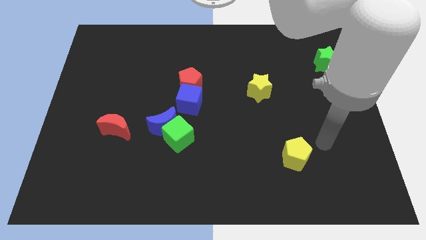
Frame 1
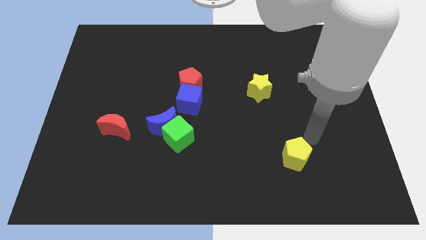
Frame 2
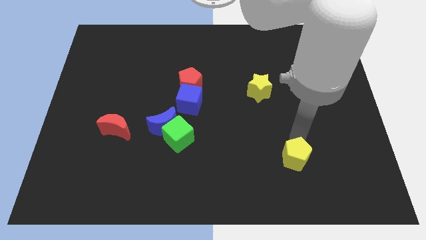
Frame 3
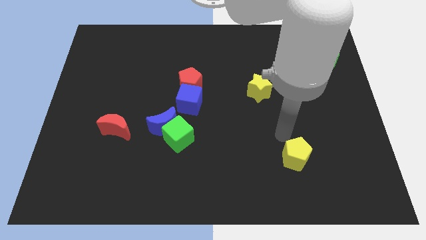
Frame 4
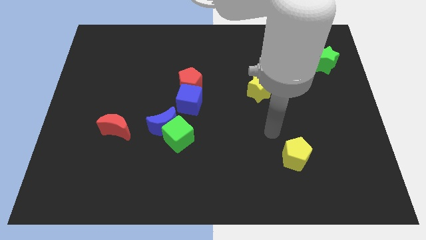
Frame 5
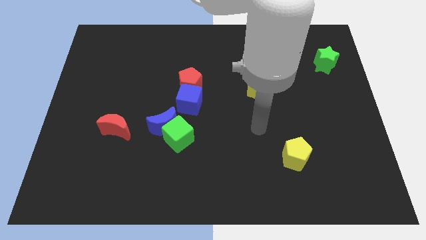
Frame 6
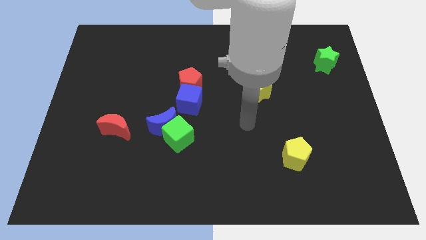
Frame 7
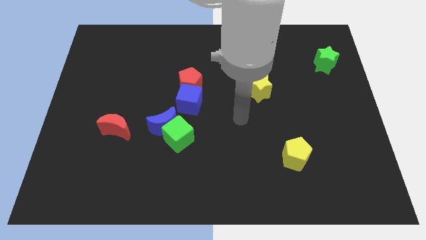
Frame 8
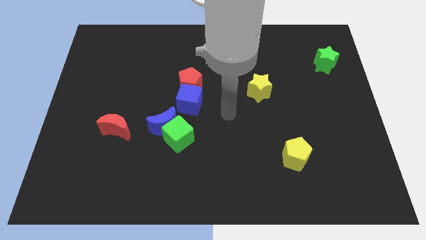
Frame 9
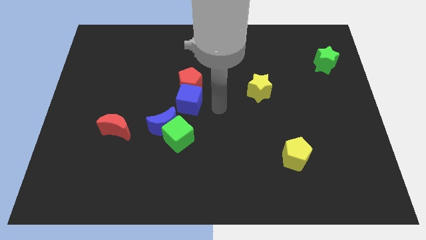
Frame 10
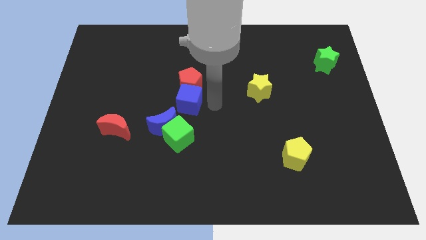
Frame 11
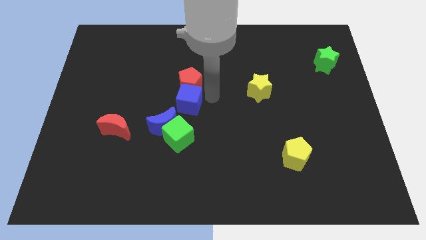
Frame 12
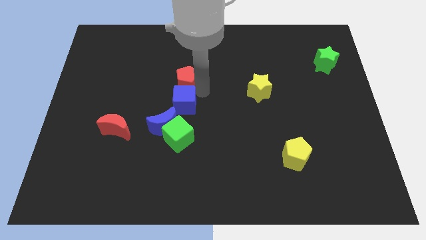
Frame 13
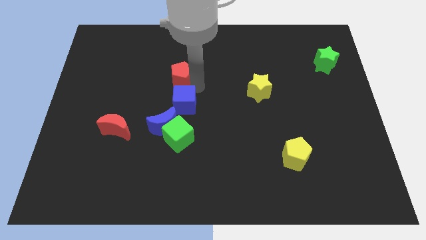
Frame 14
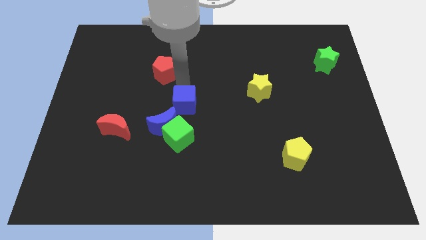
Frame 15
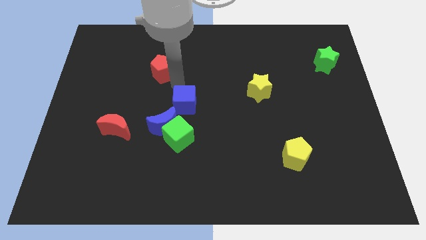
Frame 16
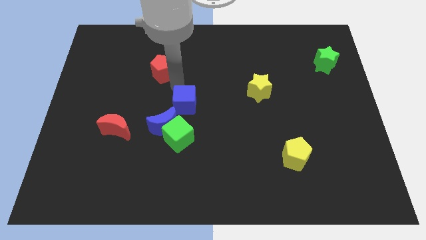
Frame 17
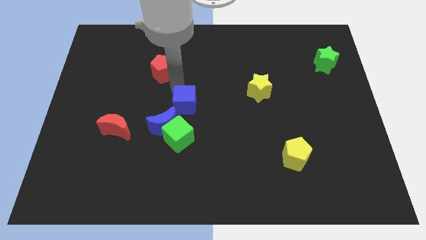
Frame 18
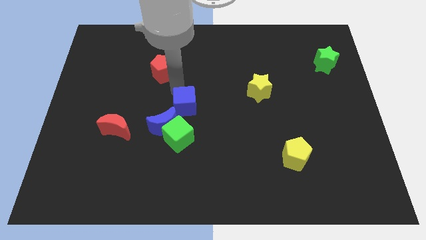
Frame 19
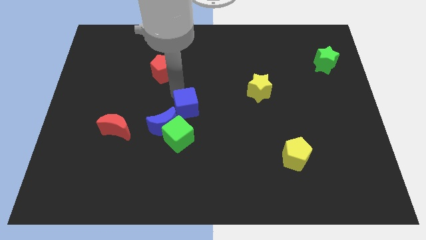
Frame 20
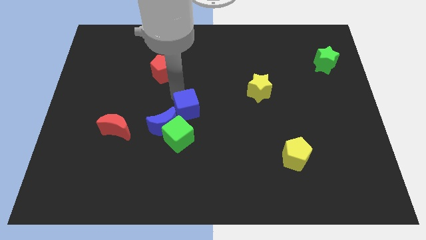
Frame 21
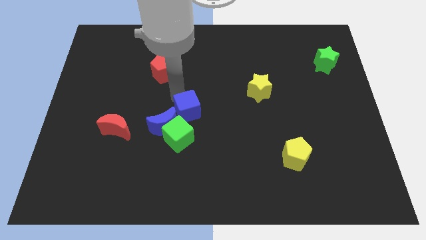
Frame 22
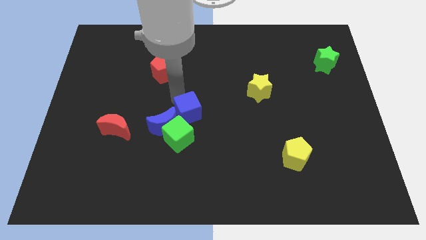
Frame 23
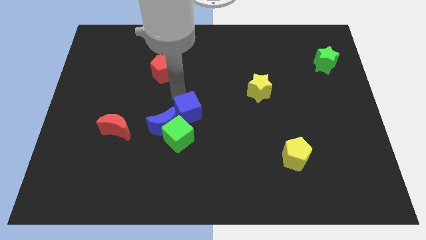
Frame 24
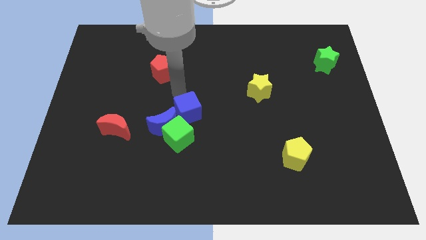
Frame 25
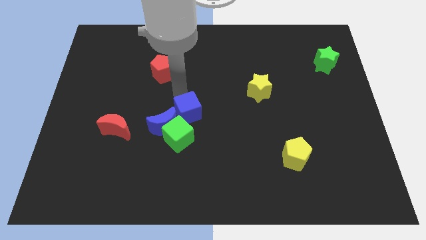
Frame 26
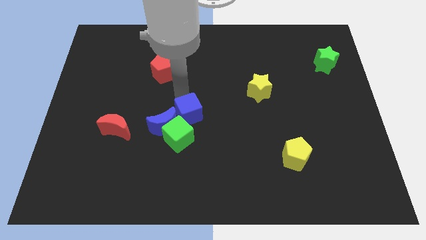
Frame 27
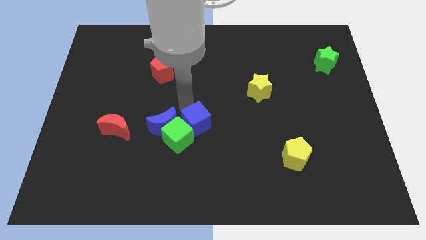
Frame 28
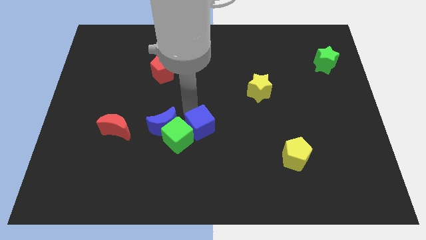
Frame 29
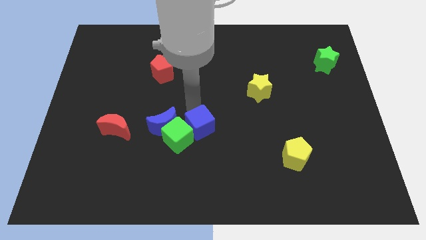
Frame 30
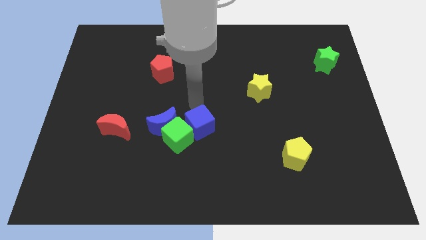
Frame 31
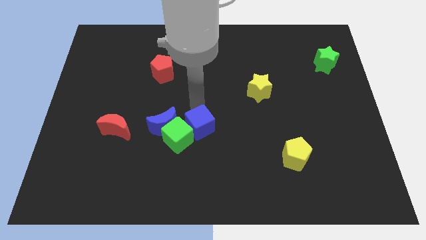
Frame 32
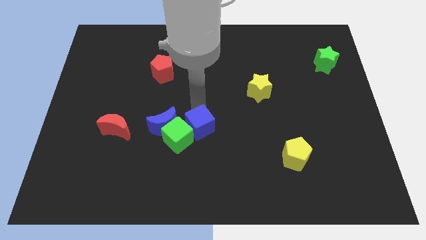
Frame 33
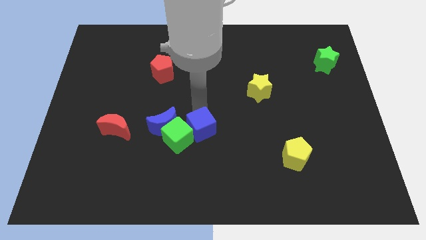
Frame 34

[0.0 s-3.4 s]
slightly slide the blue cube down

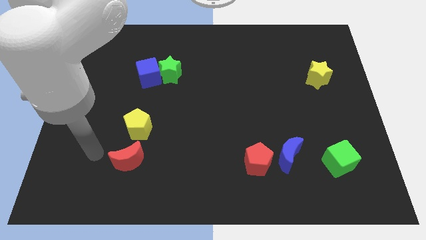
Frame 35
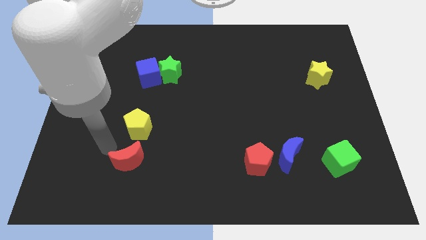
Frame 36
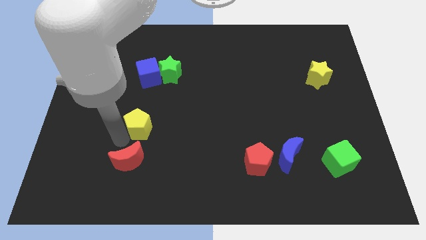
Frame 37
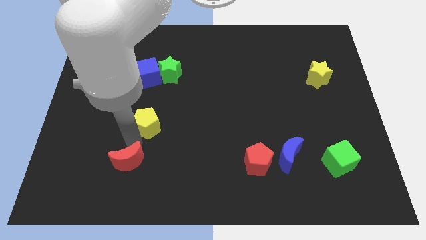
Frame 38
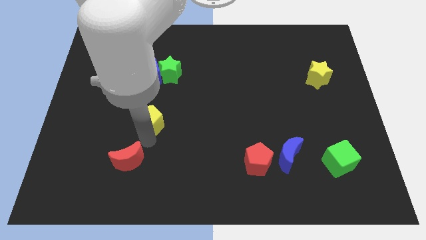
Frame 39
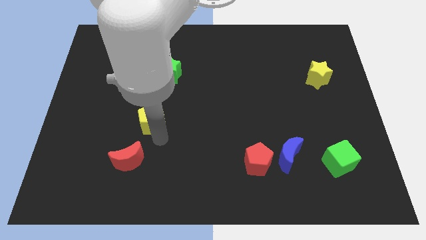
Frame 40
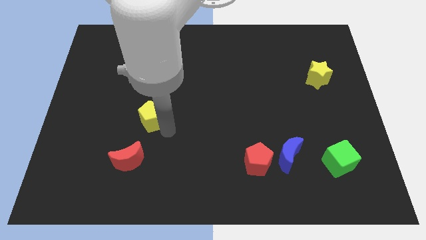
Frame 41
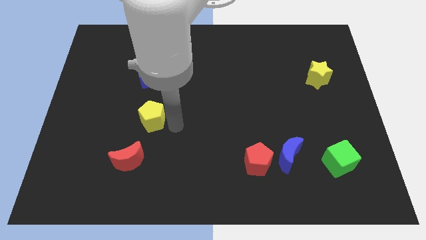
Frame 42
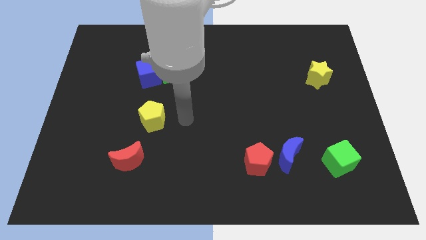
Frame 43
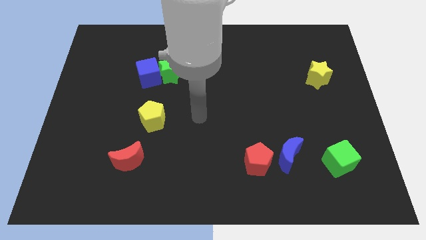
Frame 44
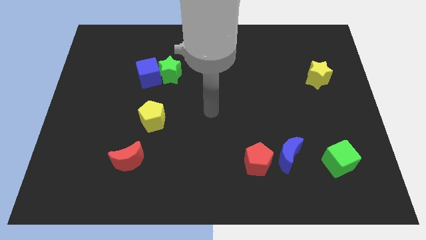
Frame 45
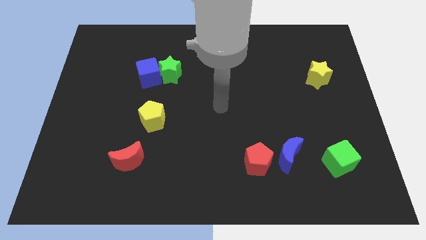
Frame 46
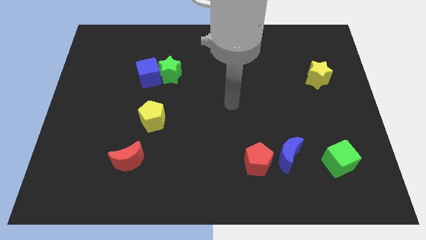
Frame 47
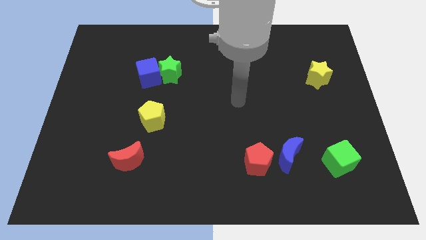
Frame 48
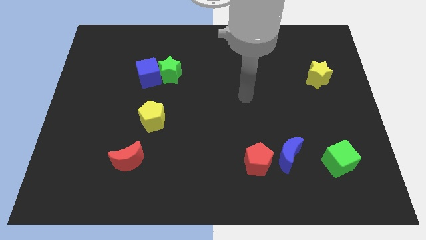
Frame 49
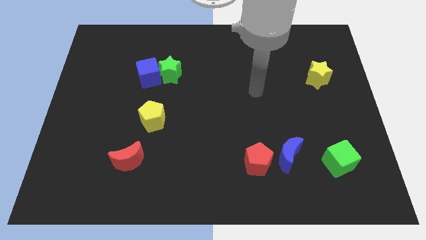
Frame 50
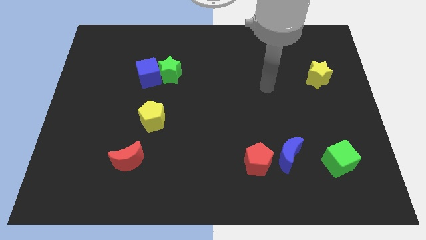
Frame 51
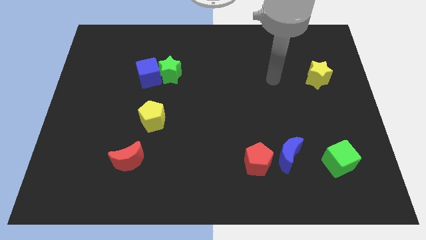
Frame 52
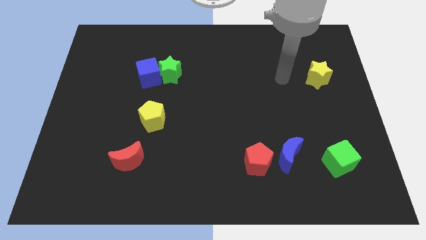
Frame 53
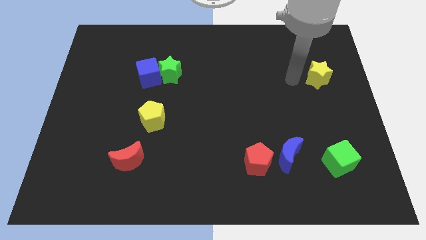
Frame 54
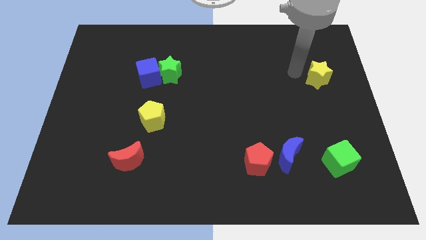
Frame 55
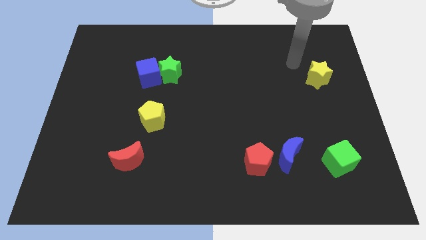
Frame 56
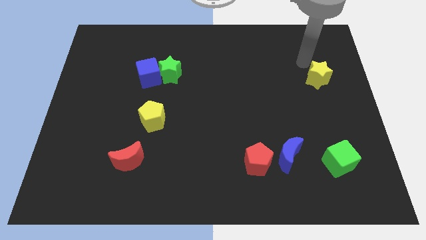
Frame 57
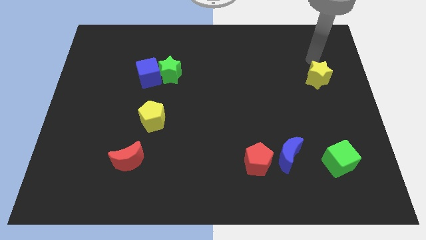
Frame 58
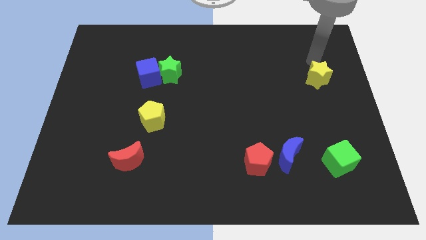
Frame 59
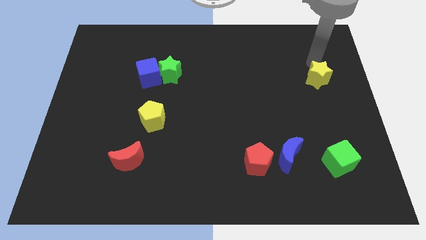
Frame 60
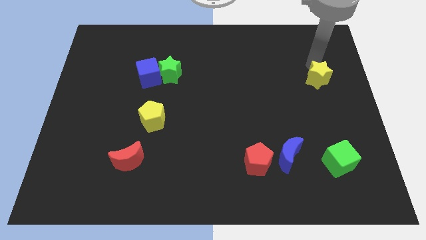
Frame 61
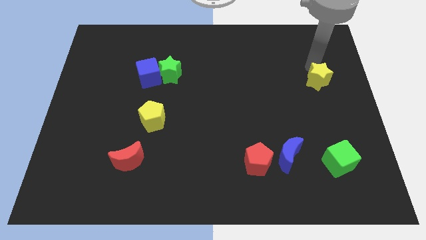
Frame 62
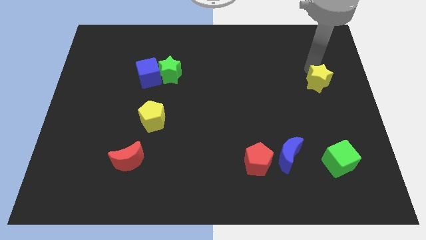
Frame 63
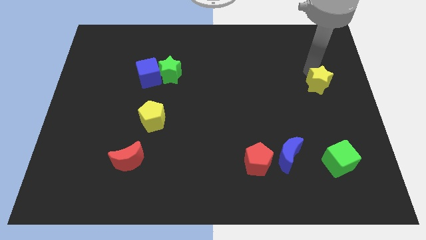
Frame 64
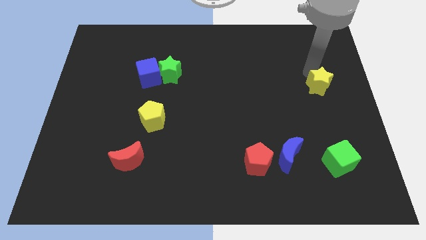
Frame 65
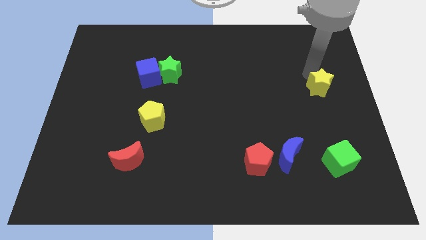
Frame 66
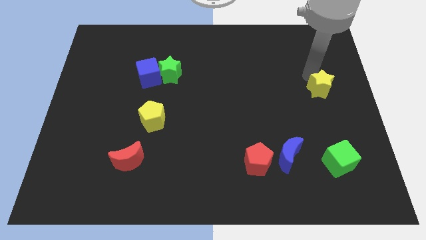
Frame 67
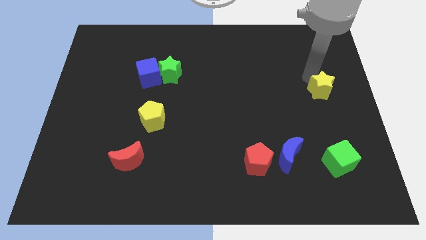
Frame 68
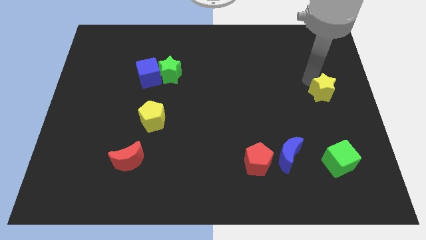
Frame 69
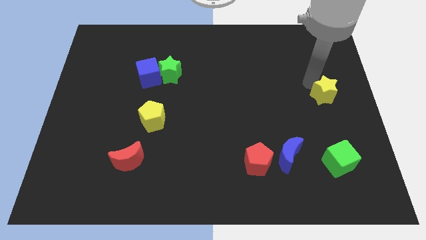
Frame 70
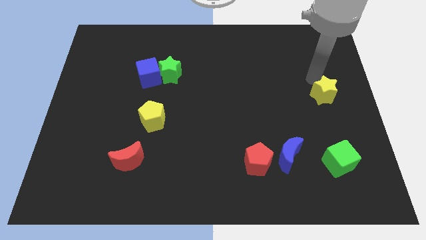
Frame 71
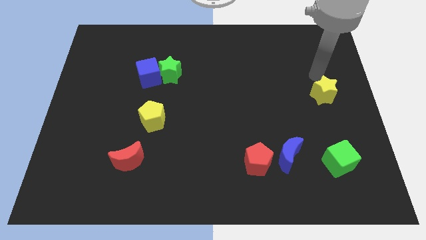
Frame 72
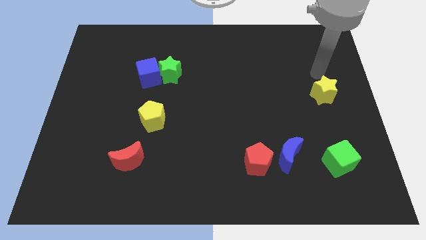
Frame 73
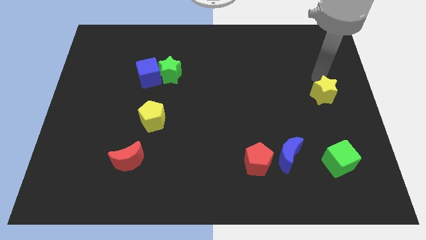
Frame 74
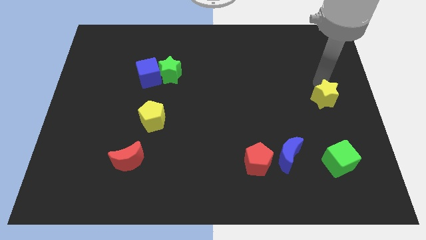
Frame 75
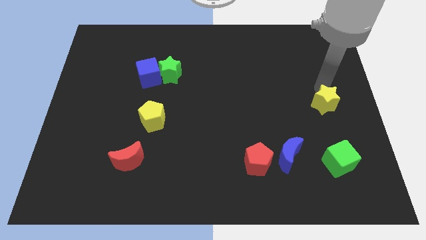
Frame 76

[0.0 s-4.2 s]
move the yellow star downwards somewhat

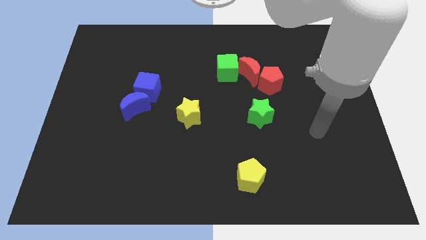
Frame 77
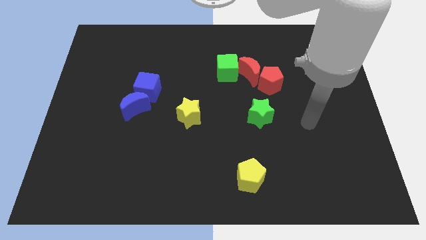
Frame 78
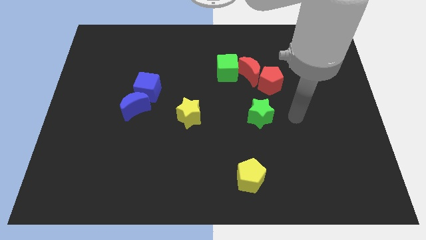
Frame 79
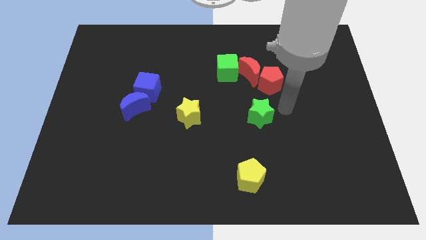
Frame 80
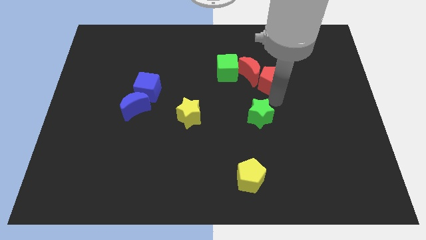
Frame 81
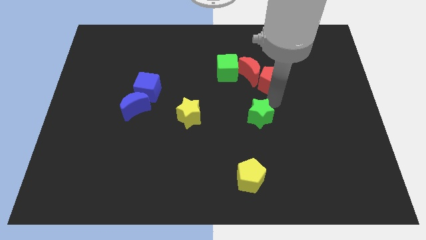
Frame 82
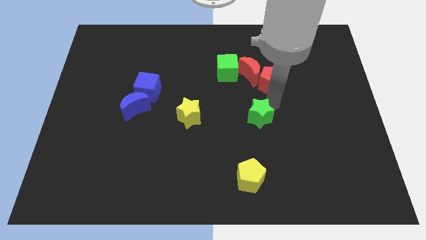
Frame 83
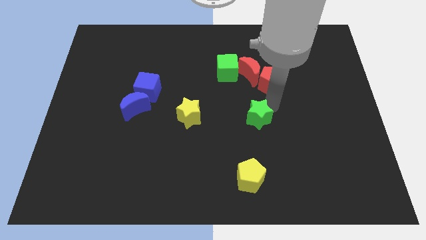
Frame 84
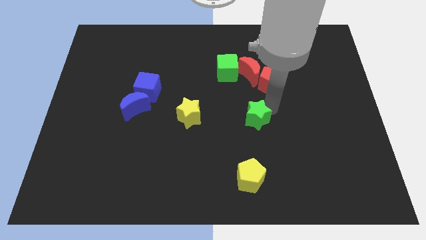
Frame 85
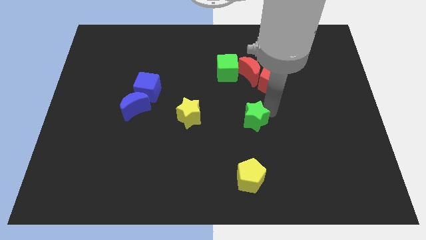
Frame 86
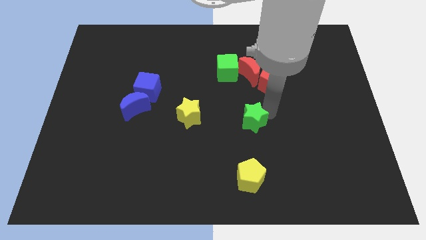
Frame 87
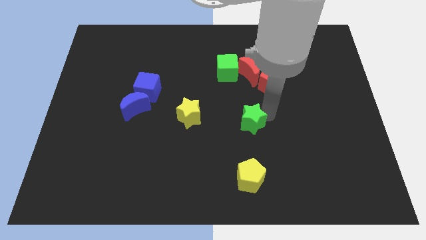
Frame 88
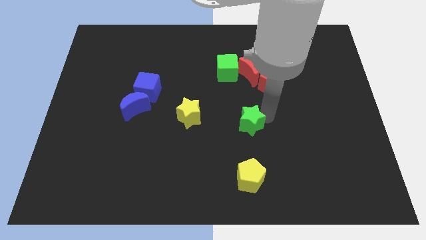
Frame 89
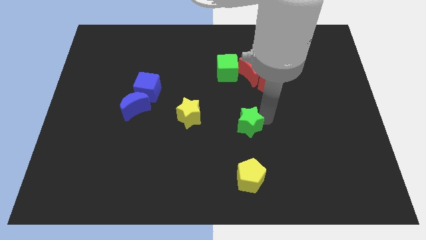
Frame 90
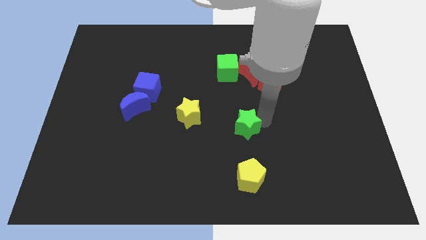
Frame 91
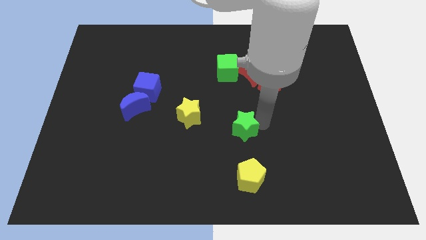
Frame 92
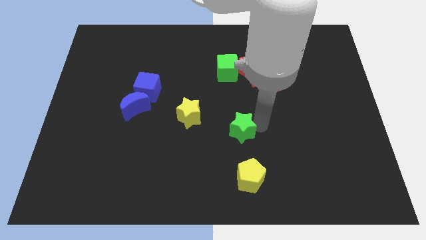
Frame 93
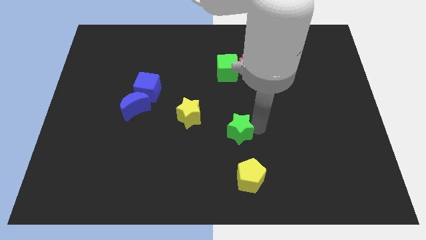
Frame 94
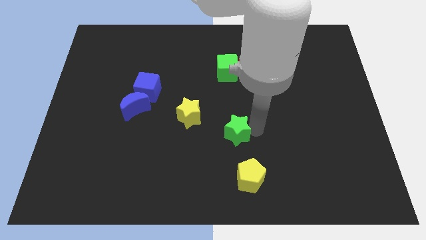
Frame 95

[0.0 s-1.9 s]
push the green star downwards and then to the left somewhat
